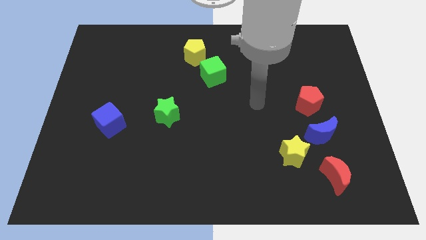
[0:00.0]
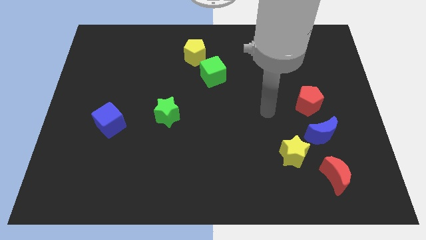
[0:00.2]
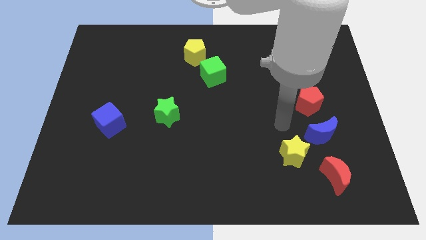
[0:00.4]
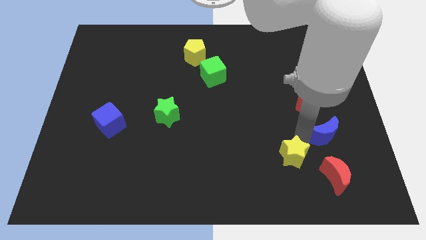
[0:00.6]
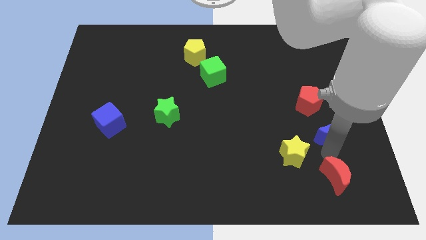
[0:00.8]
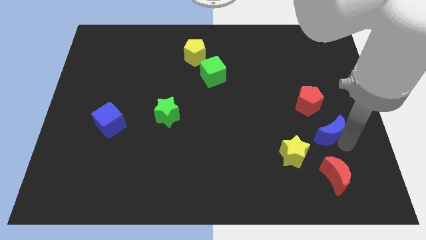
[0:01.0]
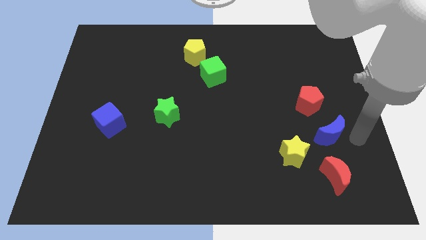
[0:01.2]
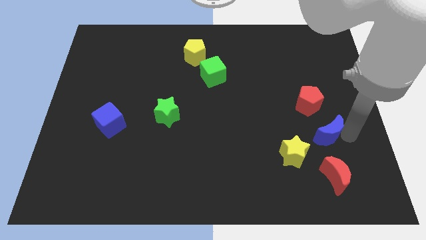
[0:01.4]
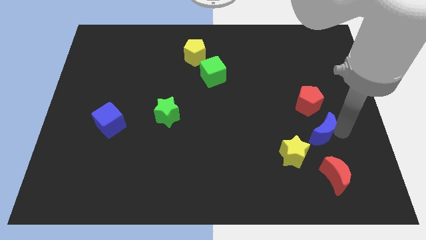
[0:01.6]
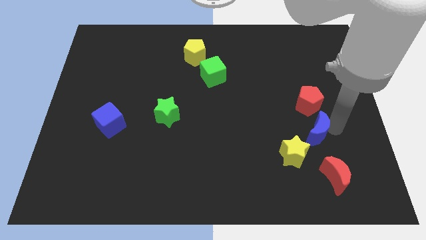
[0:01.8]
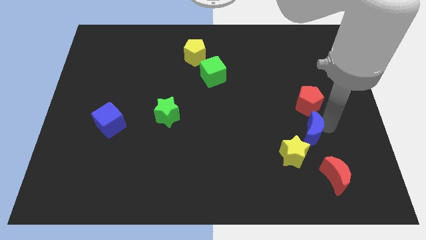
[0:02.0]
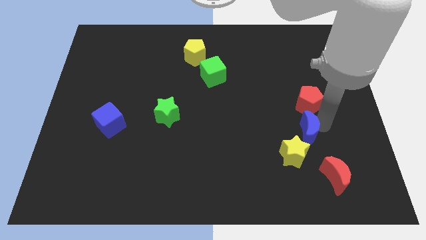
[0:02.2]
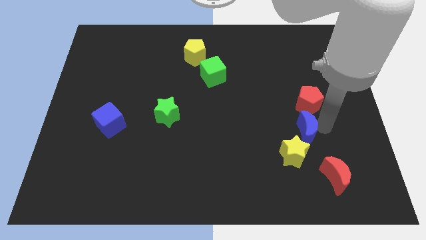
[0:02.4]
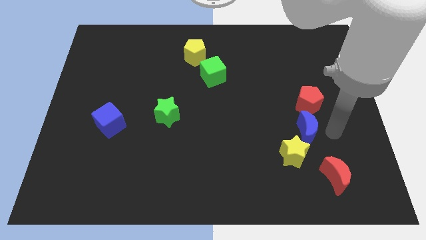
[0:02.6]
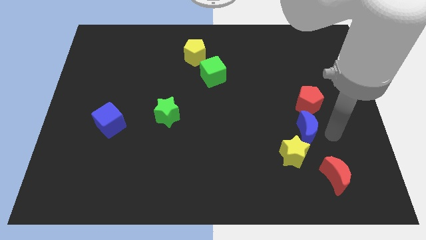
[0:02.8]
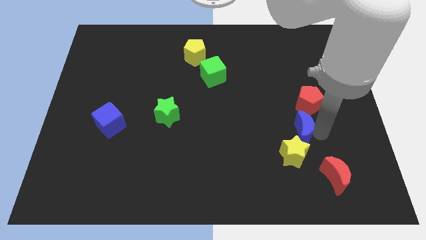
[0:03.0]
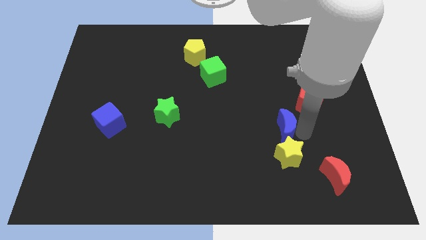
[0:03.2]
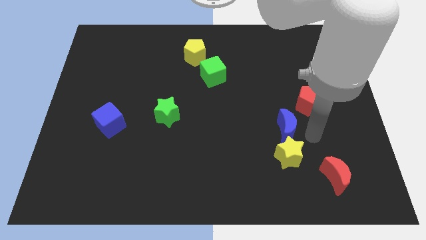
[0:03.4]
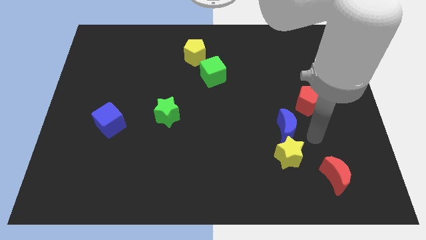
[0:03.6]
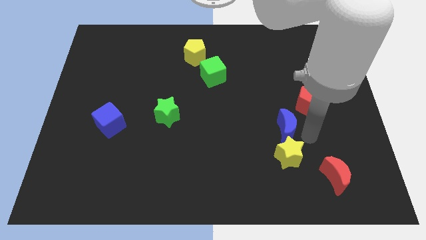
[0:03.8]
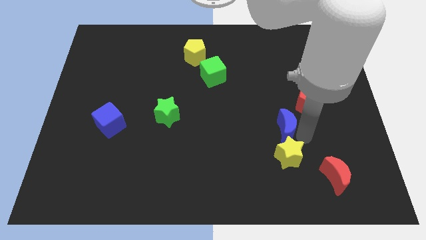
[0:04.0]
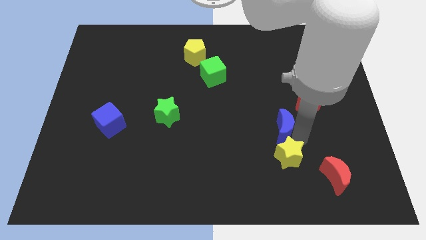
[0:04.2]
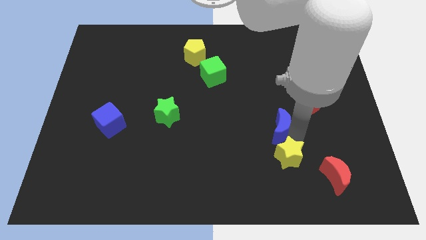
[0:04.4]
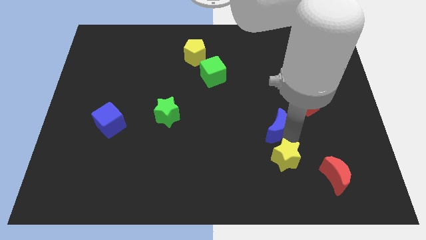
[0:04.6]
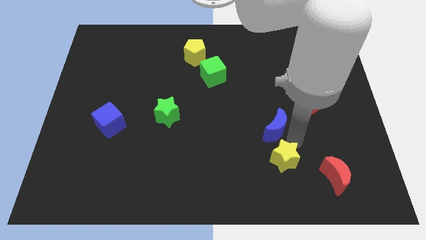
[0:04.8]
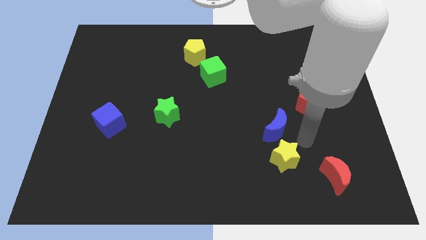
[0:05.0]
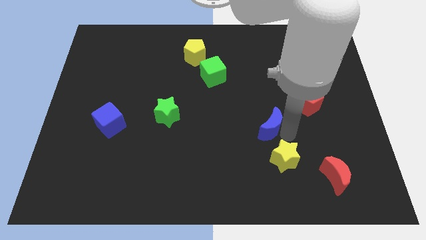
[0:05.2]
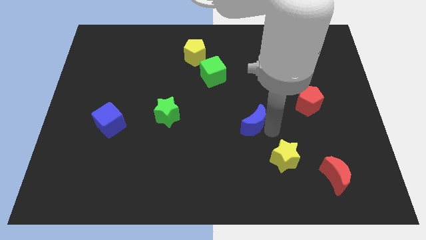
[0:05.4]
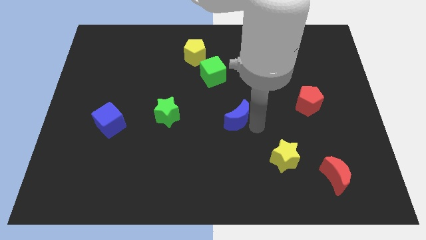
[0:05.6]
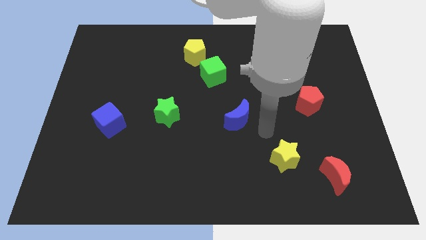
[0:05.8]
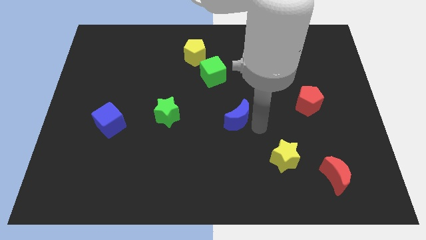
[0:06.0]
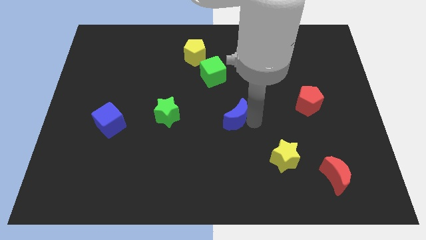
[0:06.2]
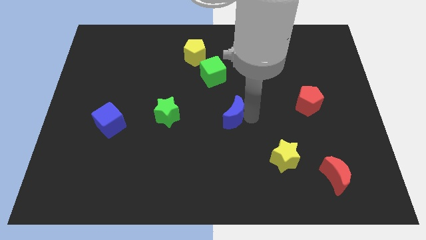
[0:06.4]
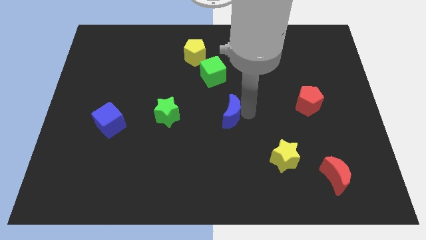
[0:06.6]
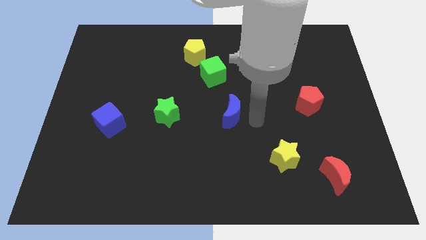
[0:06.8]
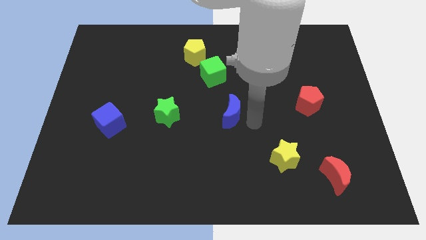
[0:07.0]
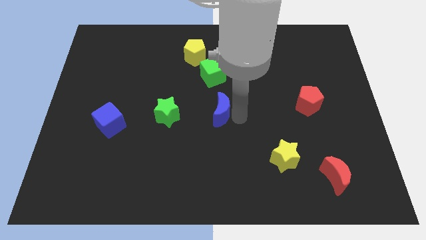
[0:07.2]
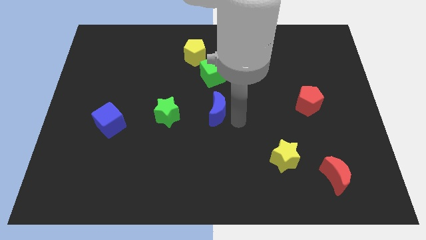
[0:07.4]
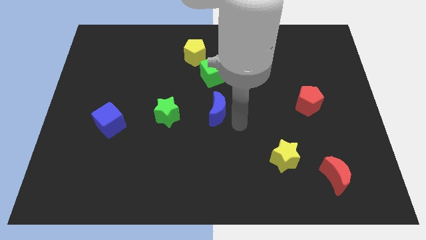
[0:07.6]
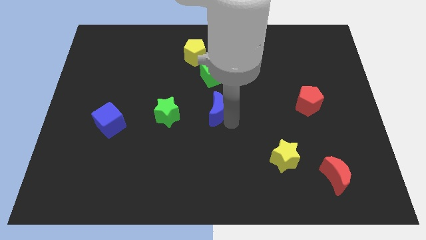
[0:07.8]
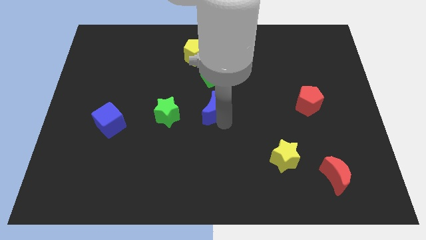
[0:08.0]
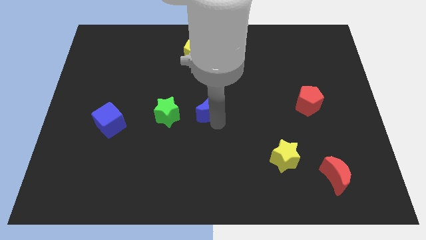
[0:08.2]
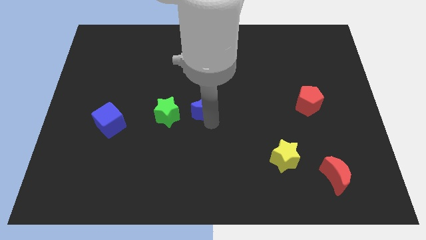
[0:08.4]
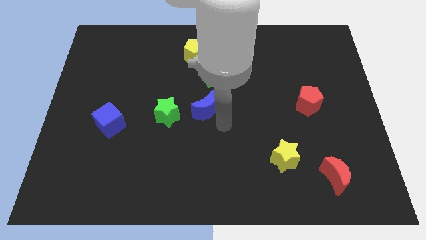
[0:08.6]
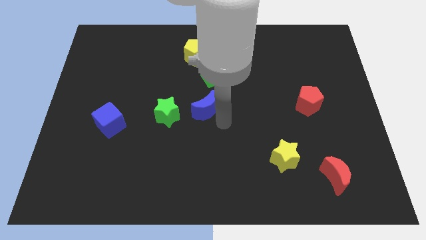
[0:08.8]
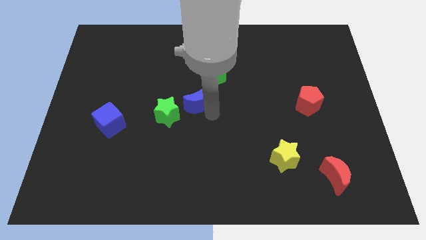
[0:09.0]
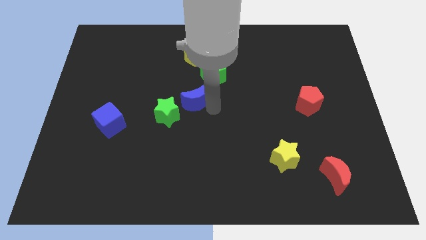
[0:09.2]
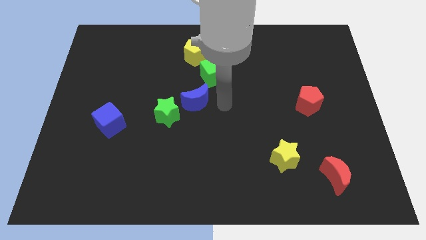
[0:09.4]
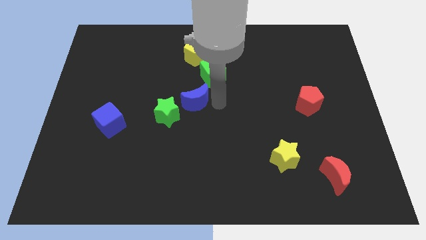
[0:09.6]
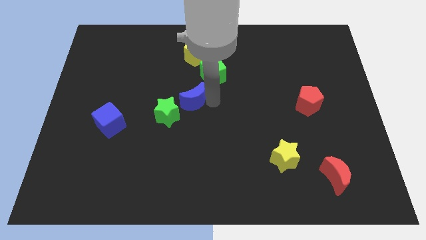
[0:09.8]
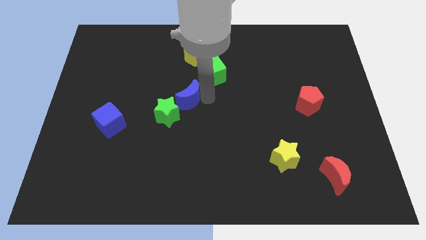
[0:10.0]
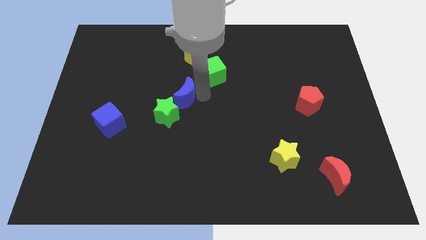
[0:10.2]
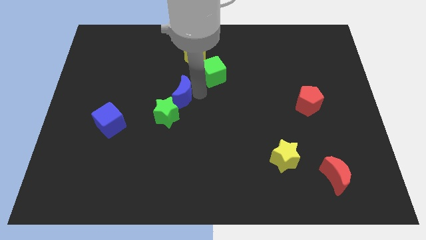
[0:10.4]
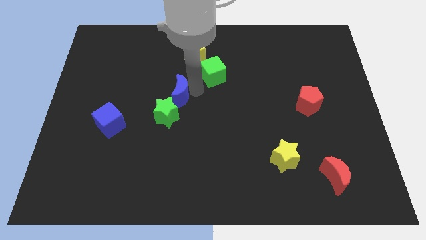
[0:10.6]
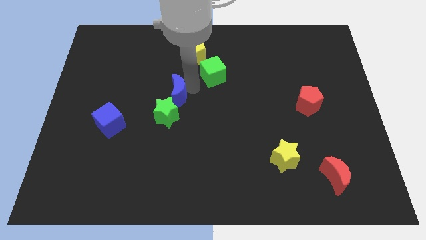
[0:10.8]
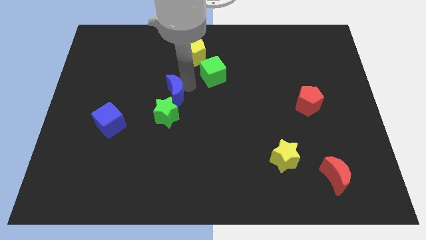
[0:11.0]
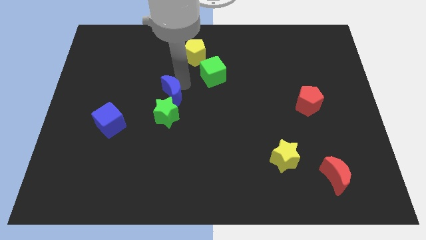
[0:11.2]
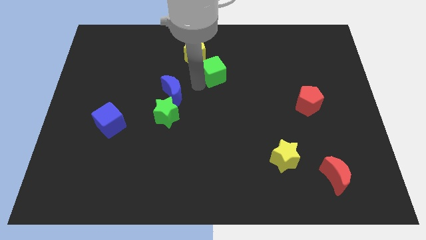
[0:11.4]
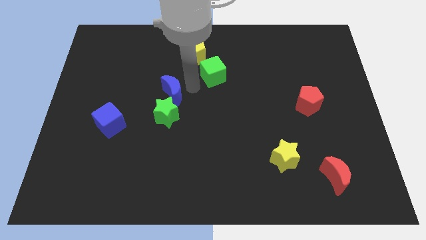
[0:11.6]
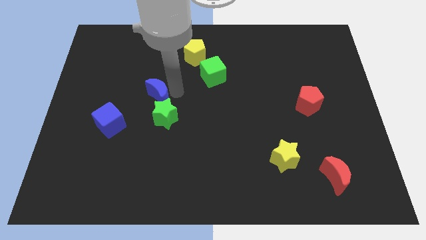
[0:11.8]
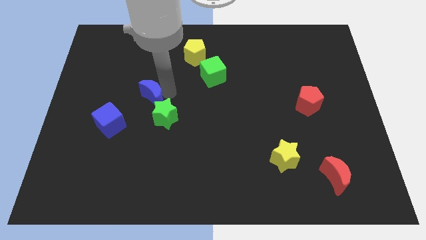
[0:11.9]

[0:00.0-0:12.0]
move the blue moon to the top right of the blue cube

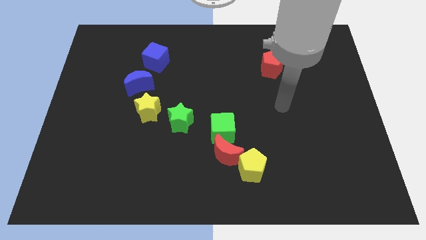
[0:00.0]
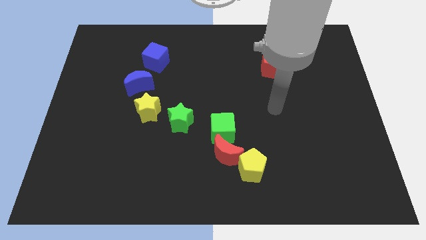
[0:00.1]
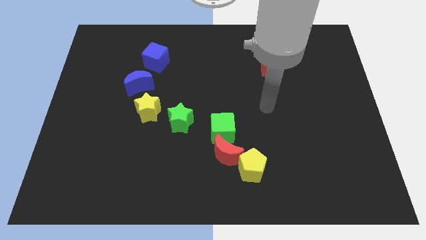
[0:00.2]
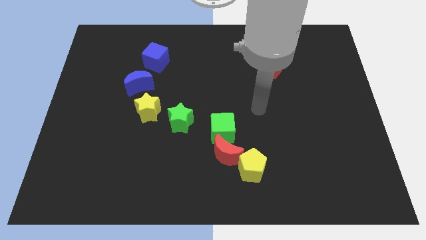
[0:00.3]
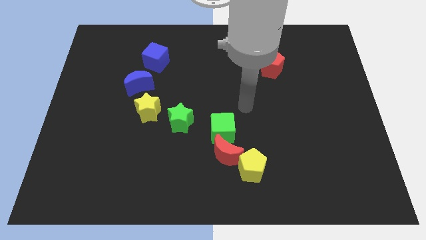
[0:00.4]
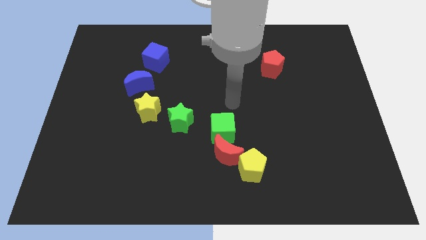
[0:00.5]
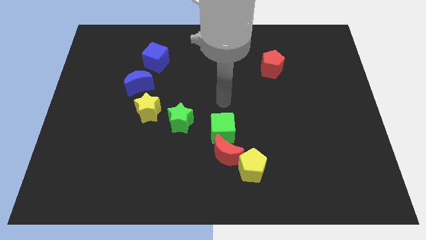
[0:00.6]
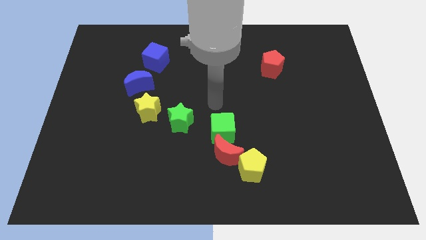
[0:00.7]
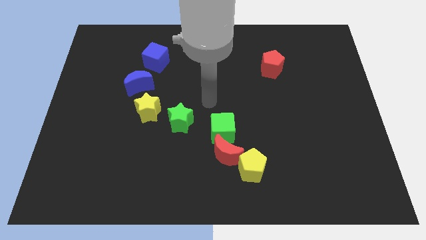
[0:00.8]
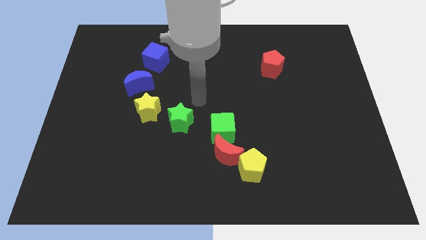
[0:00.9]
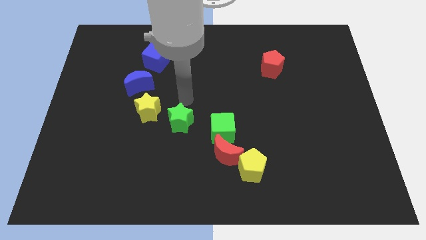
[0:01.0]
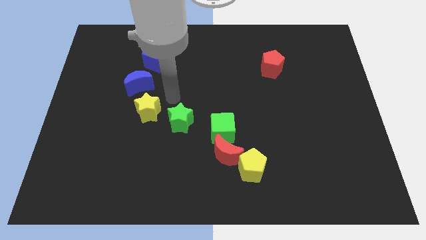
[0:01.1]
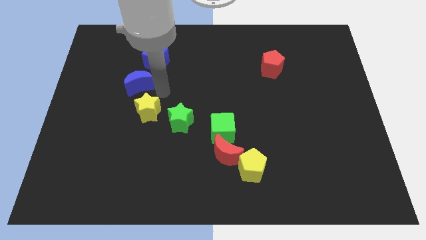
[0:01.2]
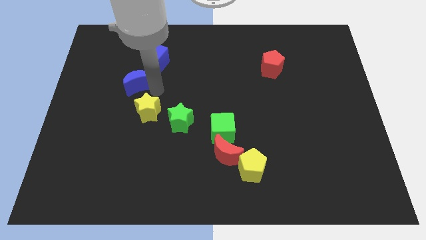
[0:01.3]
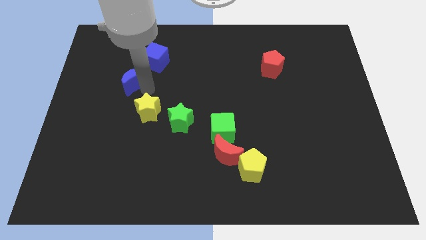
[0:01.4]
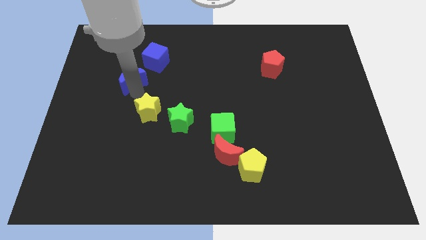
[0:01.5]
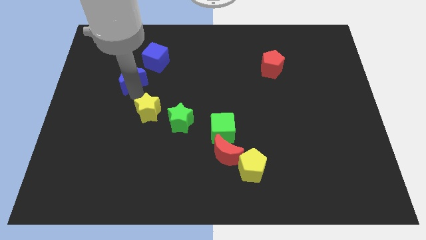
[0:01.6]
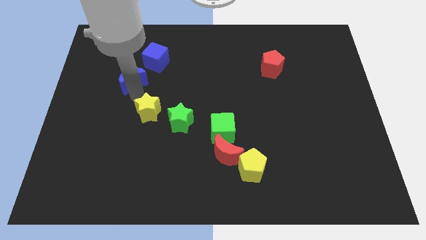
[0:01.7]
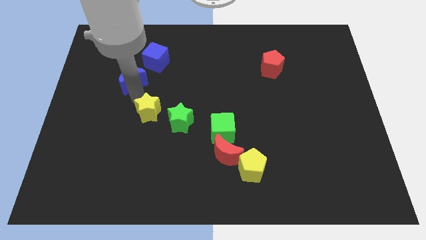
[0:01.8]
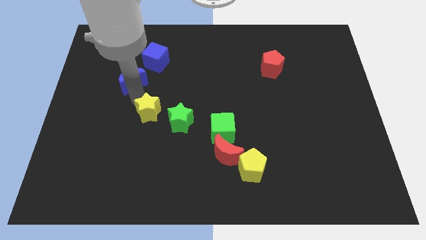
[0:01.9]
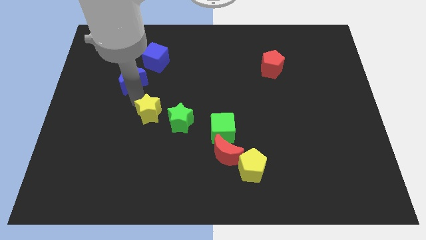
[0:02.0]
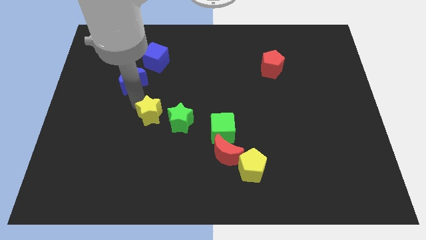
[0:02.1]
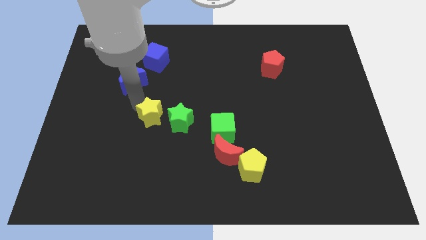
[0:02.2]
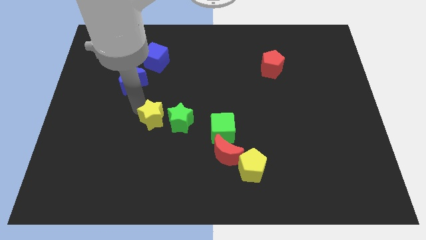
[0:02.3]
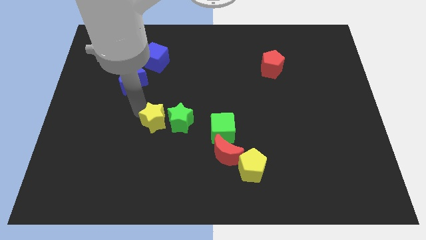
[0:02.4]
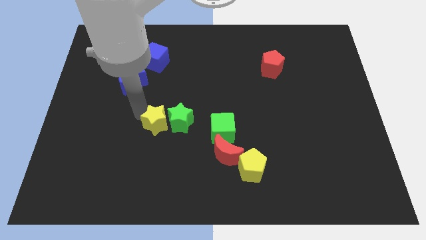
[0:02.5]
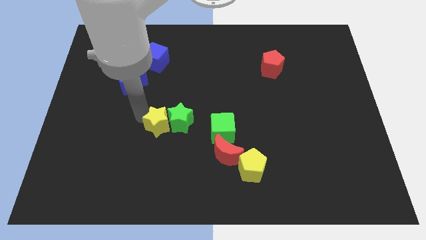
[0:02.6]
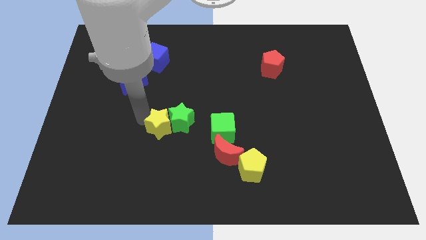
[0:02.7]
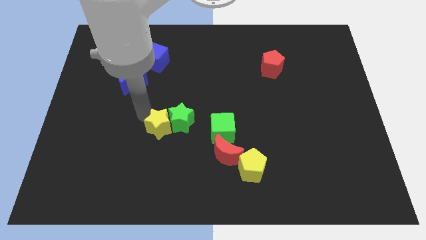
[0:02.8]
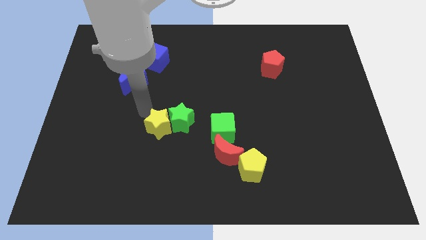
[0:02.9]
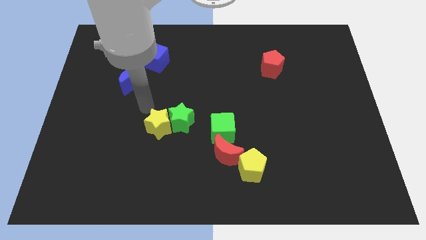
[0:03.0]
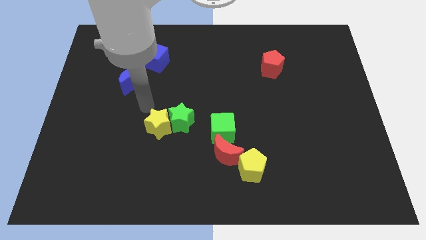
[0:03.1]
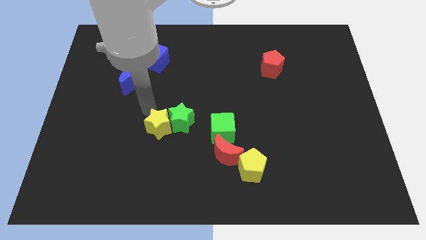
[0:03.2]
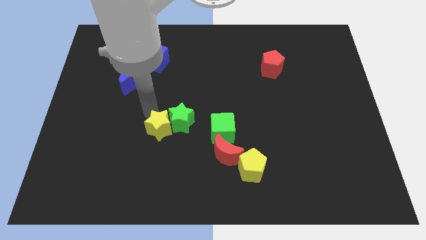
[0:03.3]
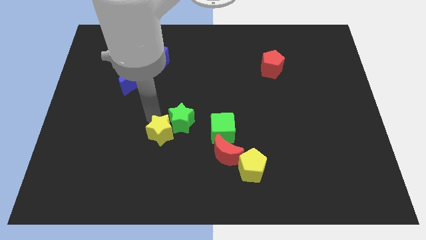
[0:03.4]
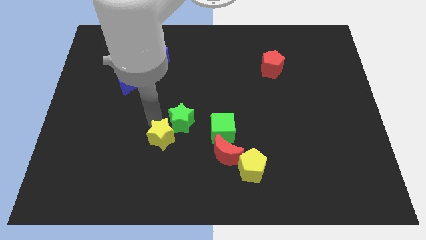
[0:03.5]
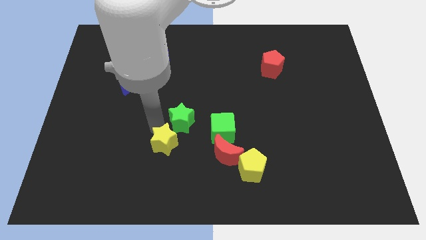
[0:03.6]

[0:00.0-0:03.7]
put the yellow star left of the red moon
